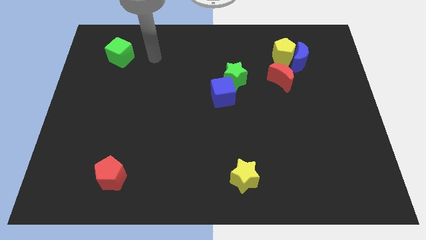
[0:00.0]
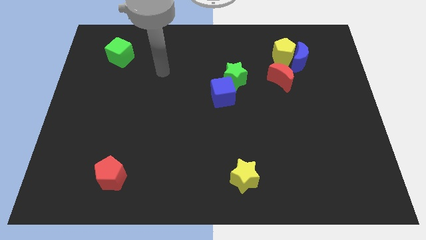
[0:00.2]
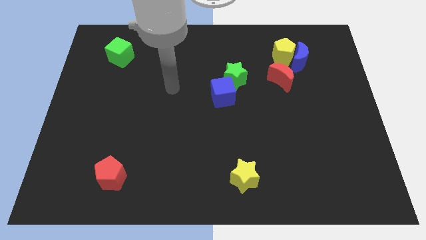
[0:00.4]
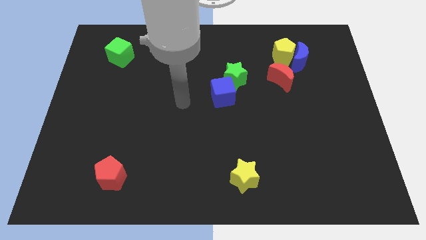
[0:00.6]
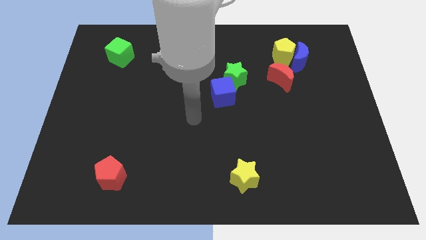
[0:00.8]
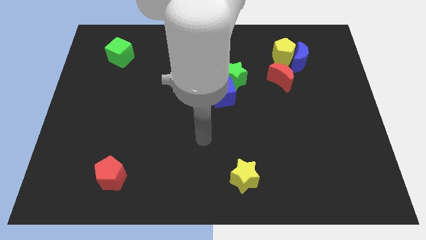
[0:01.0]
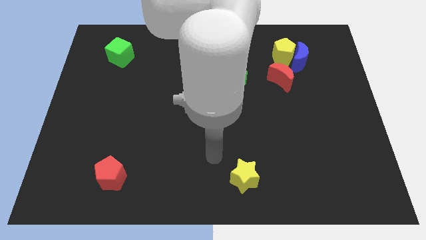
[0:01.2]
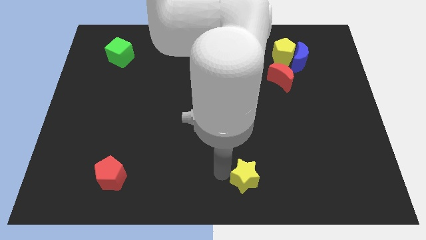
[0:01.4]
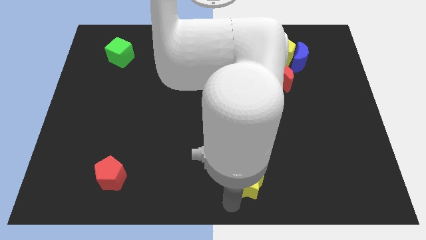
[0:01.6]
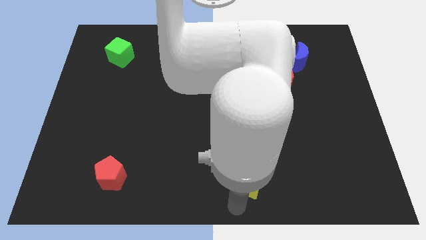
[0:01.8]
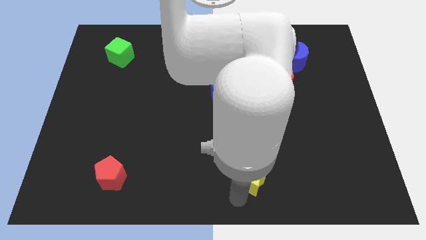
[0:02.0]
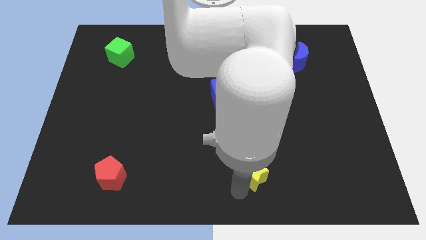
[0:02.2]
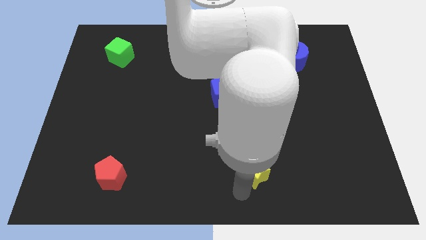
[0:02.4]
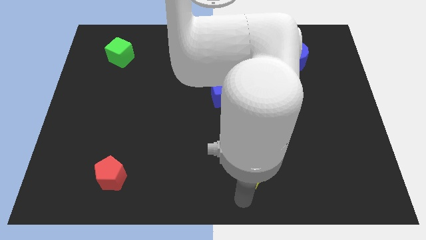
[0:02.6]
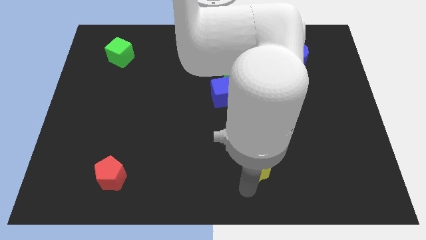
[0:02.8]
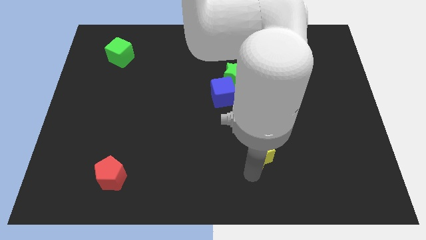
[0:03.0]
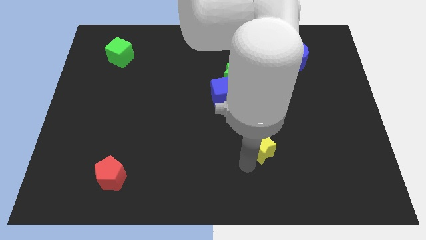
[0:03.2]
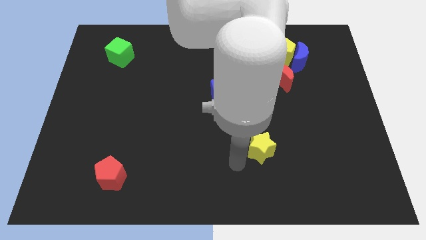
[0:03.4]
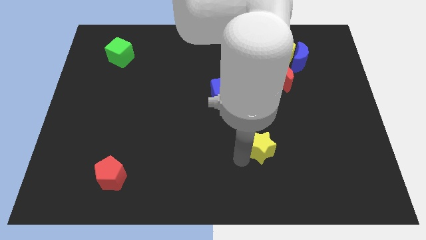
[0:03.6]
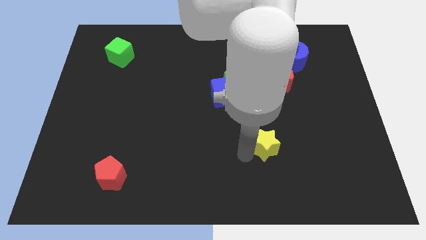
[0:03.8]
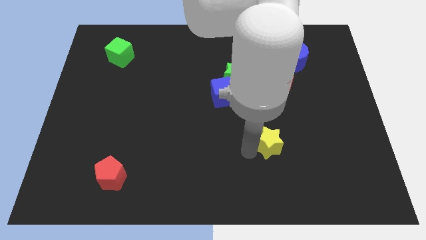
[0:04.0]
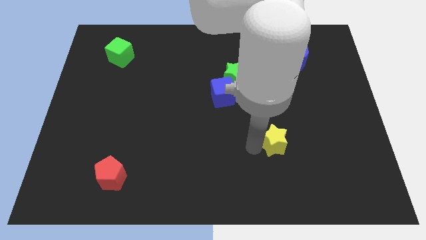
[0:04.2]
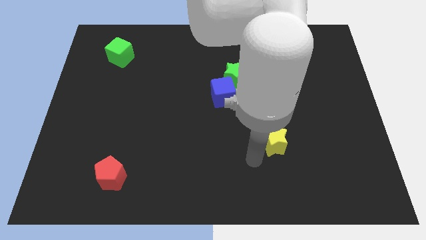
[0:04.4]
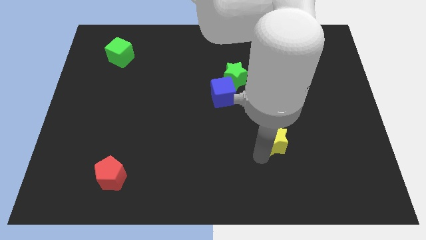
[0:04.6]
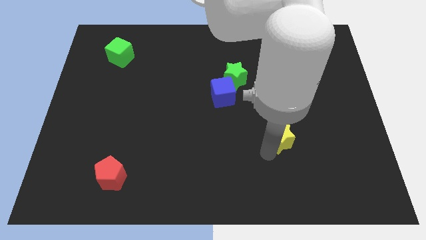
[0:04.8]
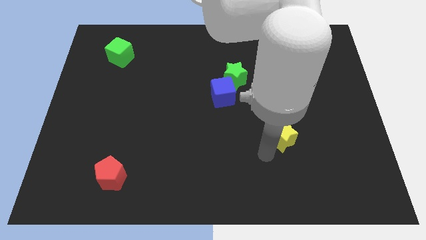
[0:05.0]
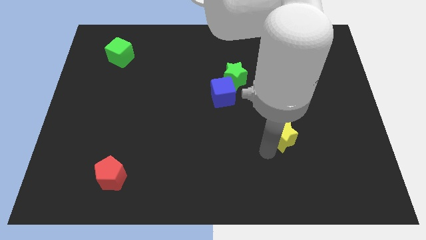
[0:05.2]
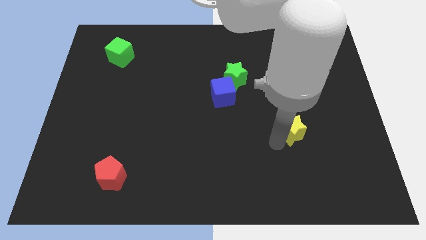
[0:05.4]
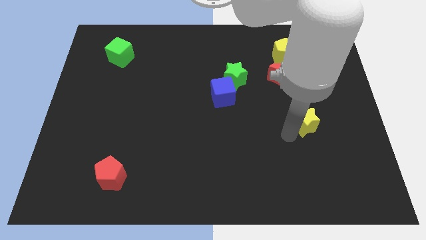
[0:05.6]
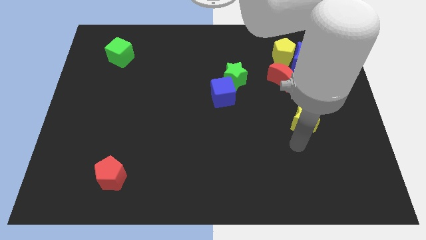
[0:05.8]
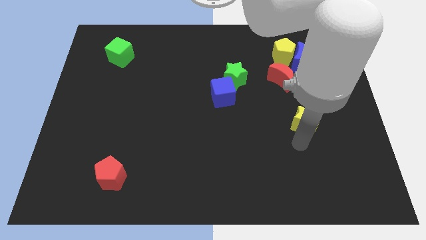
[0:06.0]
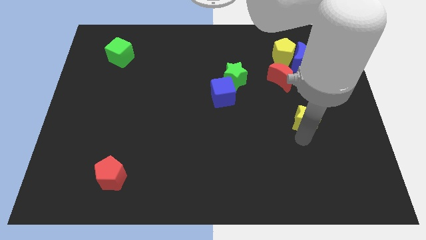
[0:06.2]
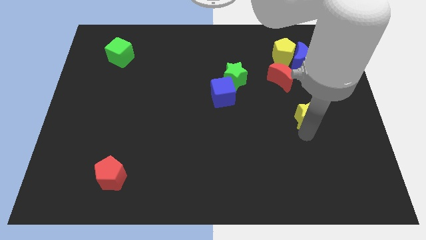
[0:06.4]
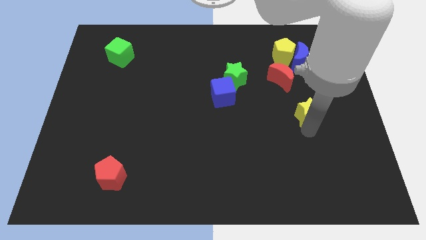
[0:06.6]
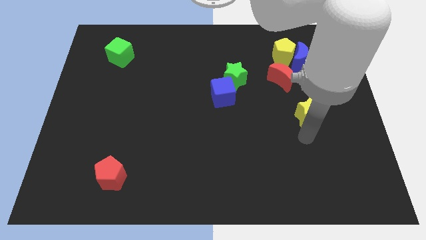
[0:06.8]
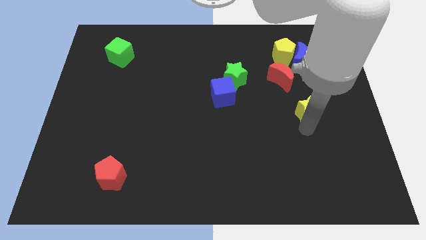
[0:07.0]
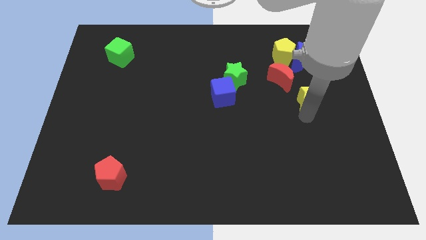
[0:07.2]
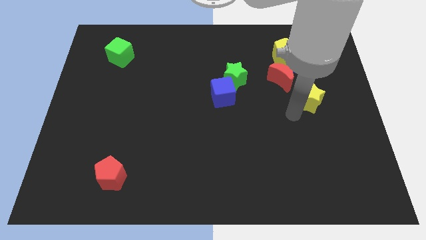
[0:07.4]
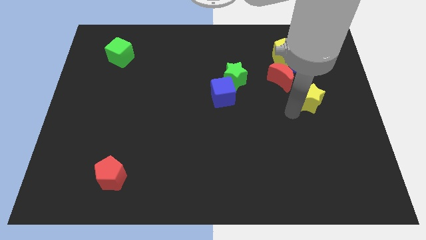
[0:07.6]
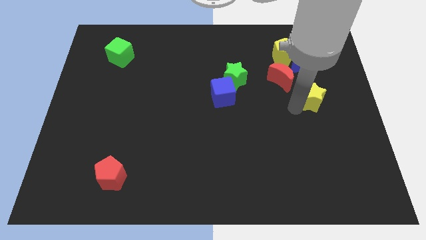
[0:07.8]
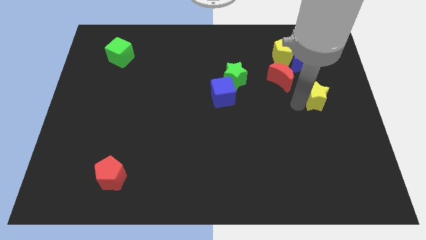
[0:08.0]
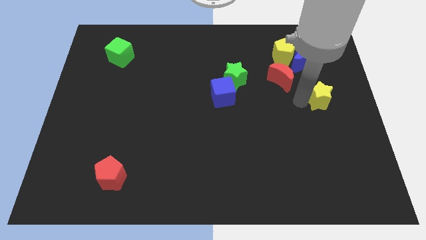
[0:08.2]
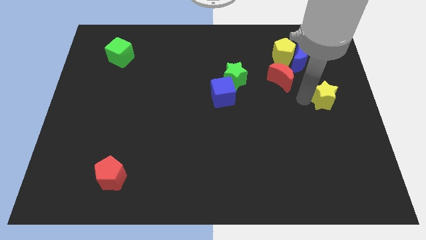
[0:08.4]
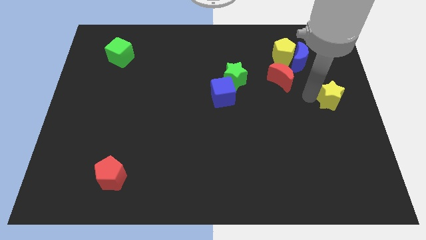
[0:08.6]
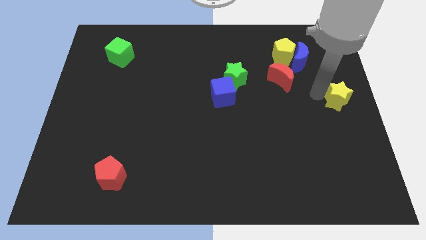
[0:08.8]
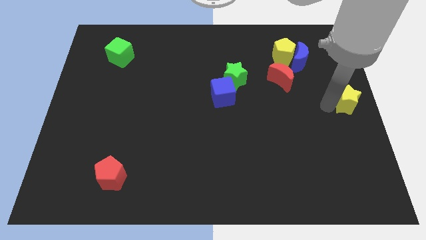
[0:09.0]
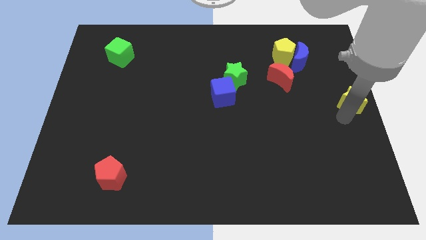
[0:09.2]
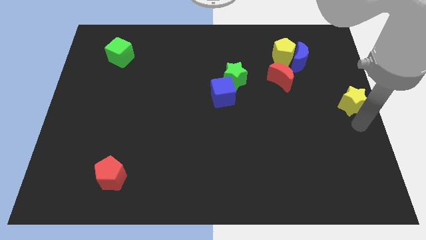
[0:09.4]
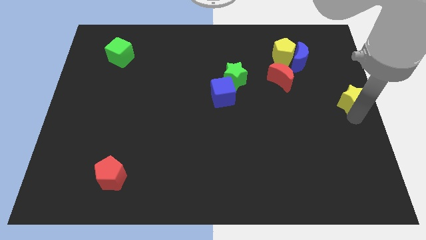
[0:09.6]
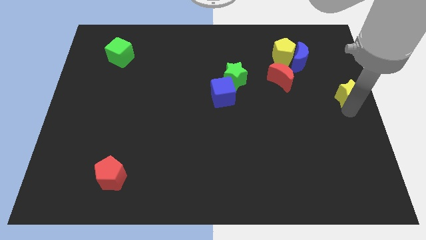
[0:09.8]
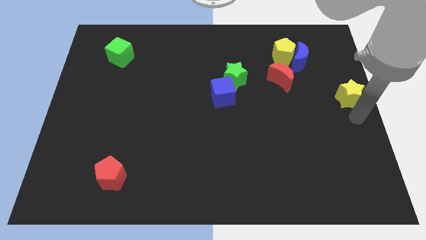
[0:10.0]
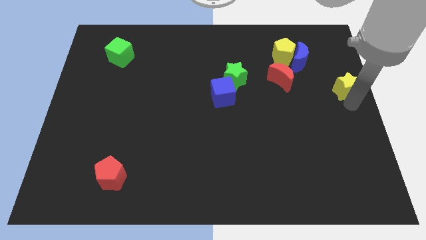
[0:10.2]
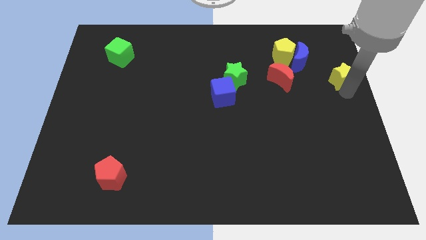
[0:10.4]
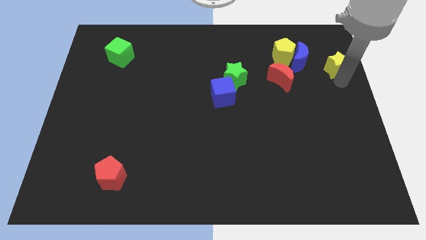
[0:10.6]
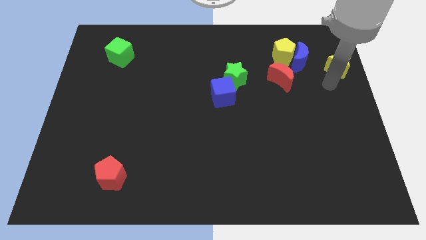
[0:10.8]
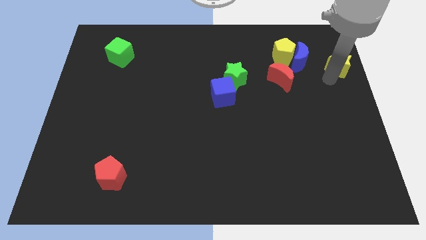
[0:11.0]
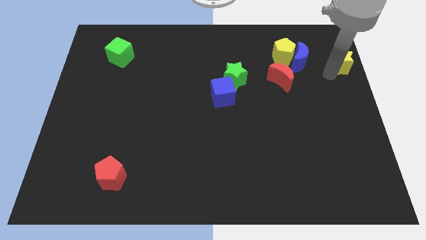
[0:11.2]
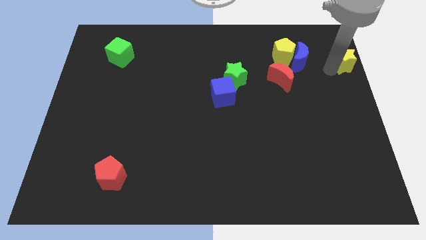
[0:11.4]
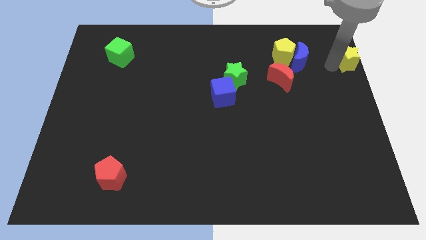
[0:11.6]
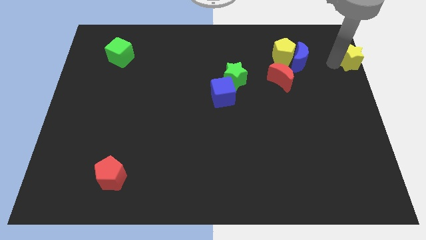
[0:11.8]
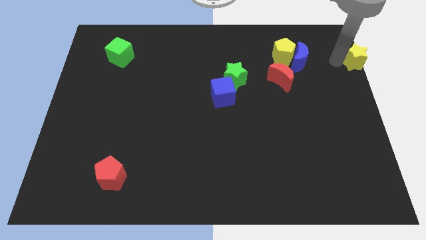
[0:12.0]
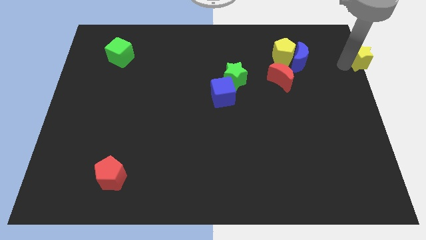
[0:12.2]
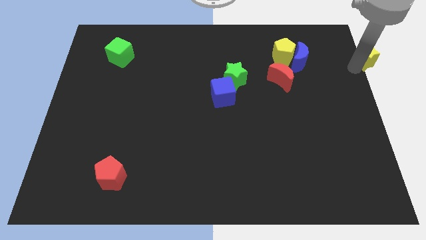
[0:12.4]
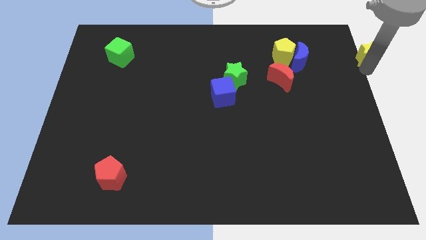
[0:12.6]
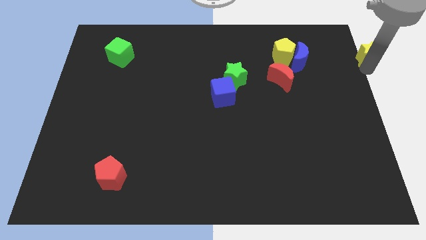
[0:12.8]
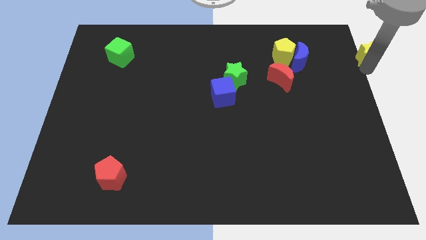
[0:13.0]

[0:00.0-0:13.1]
slide the yellow star to the top right of the board
